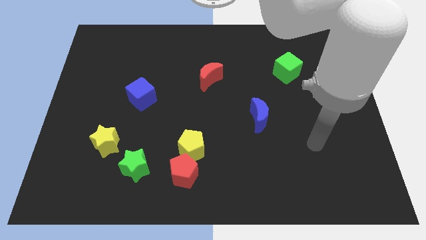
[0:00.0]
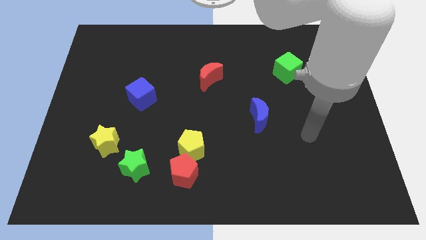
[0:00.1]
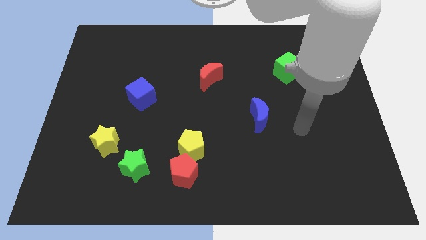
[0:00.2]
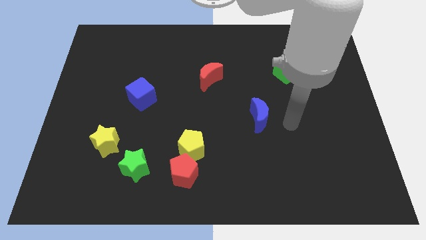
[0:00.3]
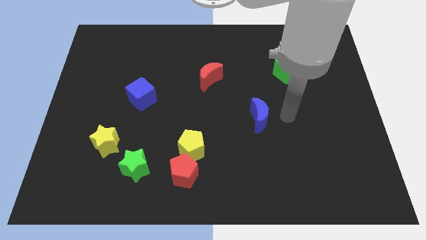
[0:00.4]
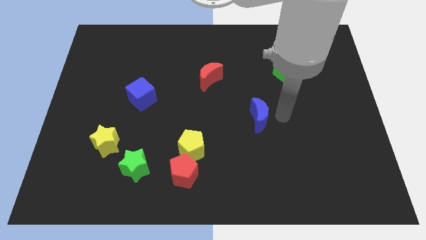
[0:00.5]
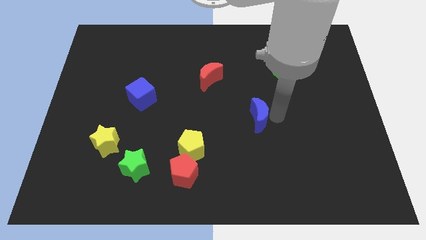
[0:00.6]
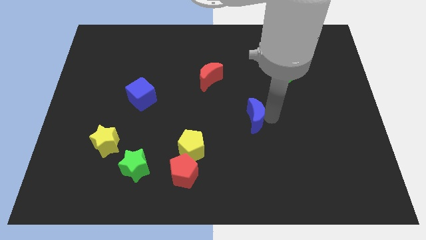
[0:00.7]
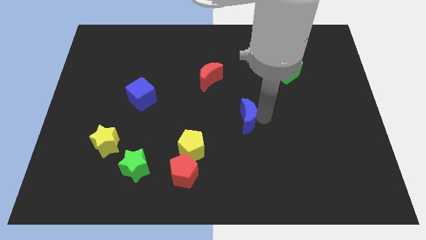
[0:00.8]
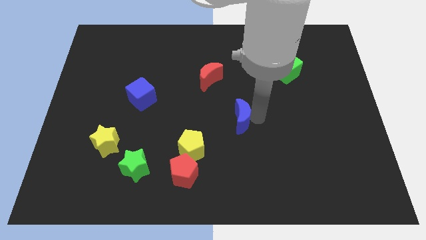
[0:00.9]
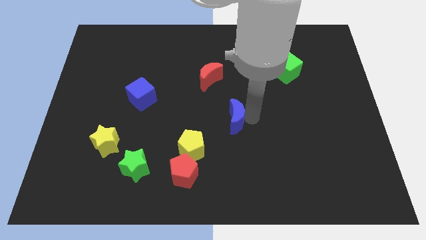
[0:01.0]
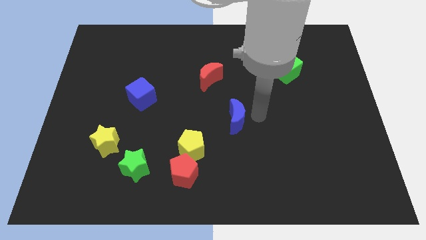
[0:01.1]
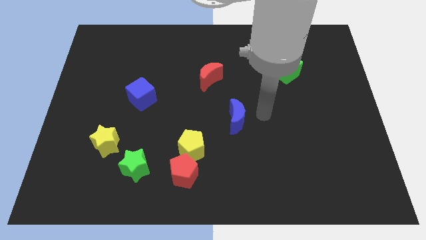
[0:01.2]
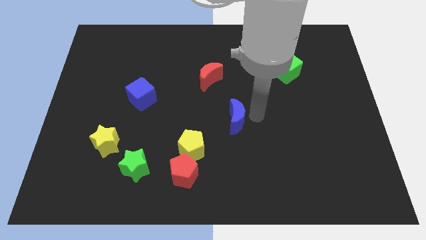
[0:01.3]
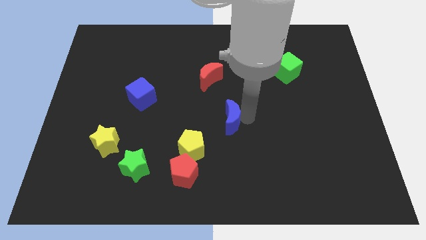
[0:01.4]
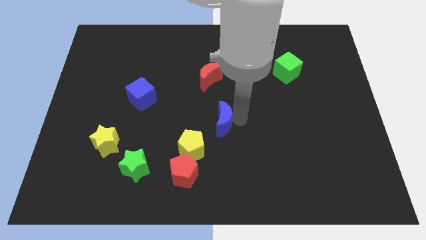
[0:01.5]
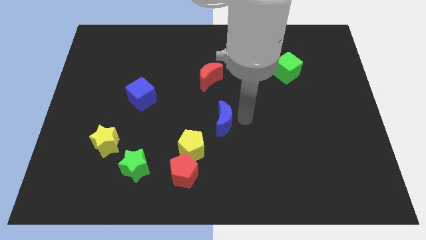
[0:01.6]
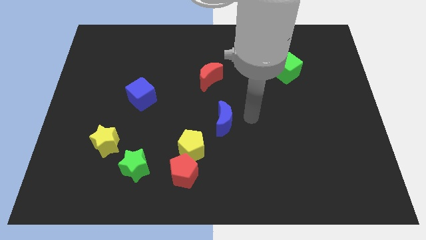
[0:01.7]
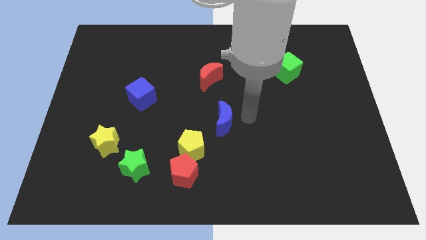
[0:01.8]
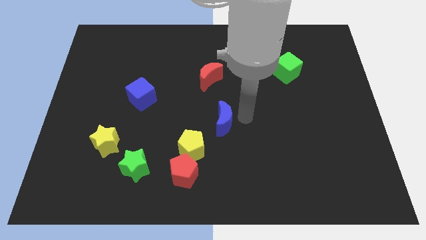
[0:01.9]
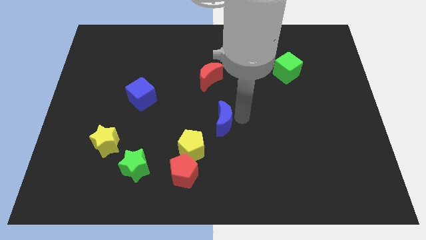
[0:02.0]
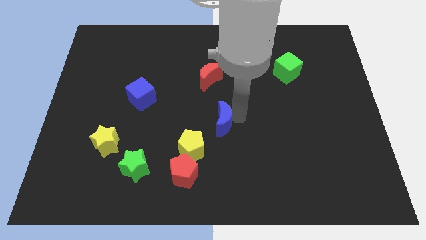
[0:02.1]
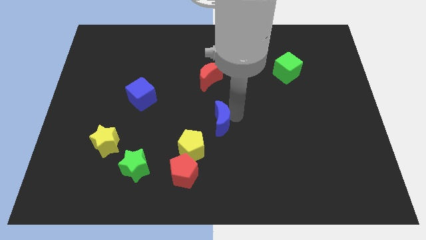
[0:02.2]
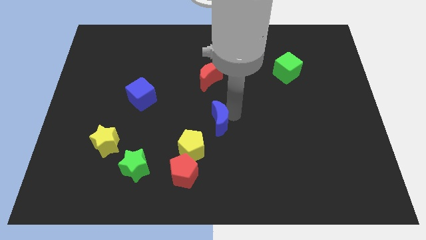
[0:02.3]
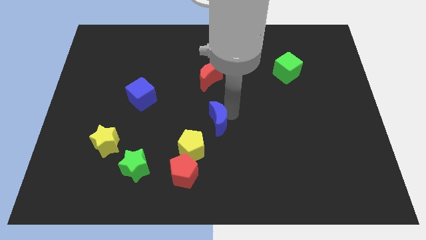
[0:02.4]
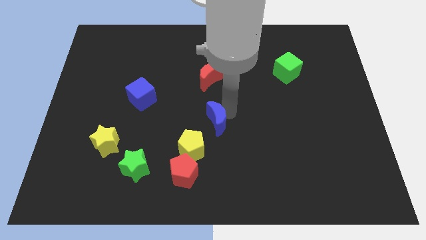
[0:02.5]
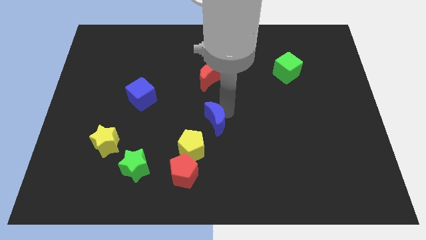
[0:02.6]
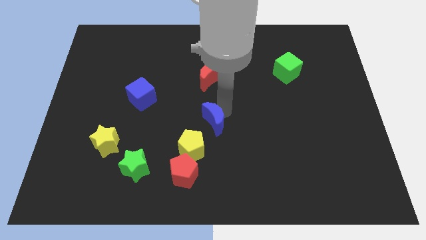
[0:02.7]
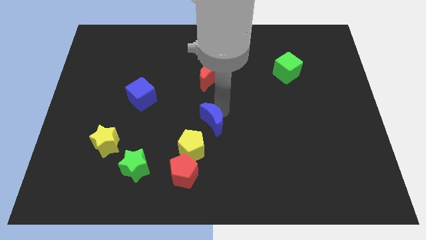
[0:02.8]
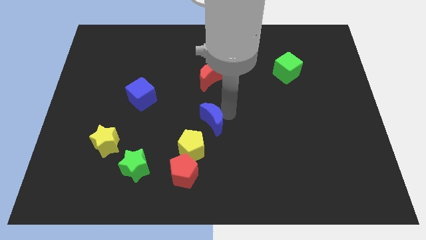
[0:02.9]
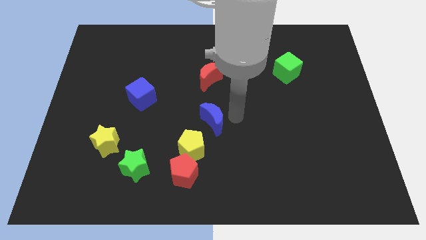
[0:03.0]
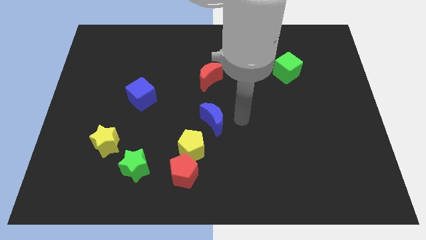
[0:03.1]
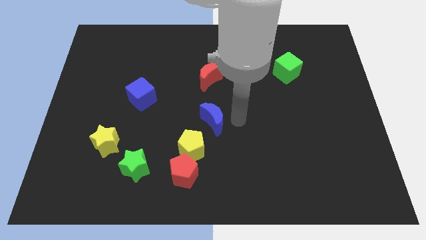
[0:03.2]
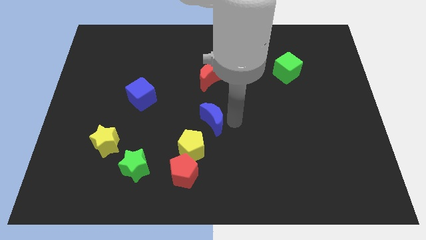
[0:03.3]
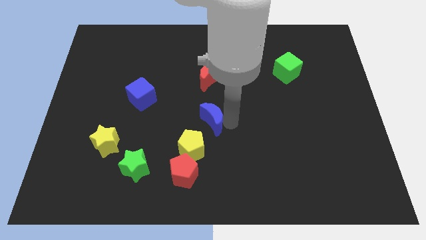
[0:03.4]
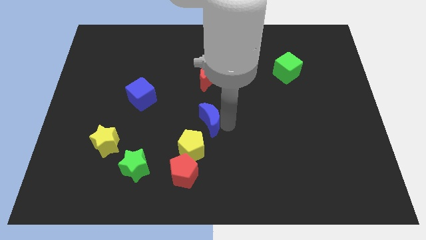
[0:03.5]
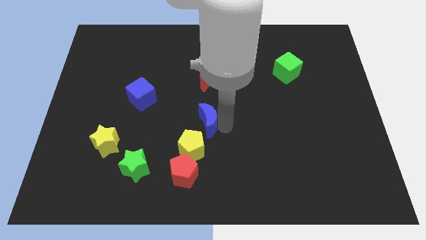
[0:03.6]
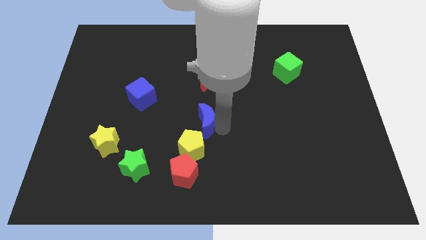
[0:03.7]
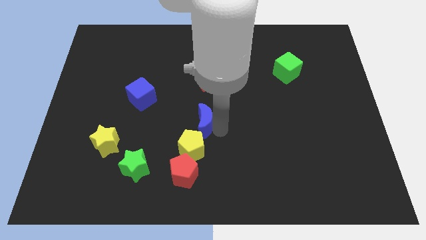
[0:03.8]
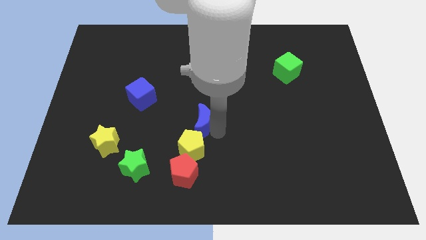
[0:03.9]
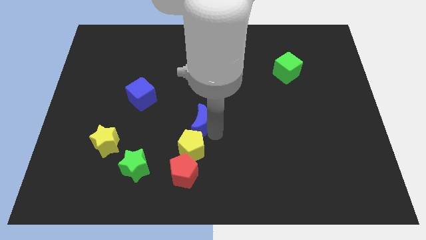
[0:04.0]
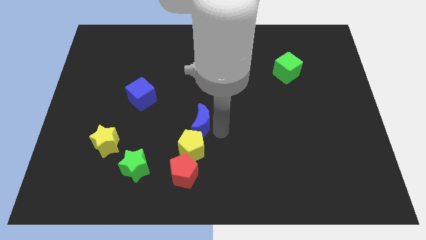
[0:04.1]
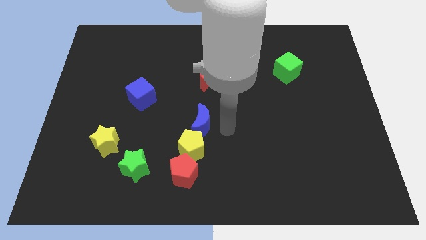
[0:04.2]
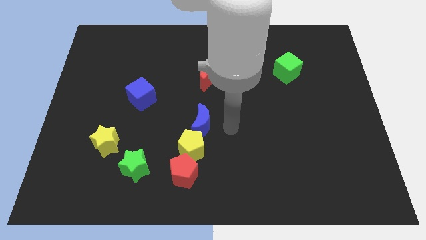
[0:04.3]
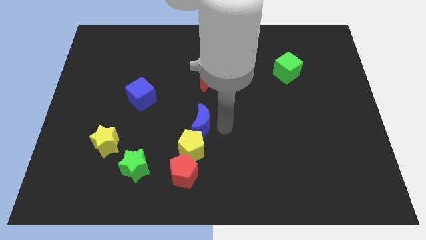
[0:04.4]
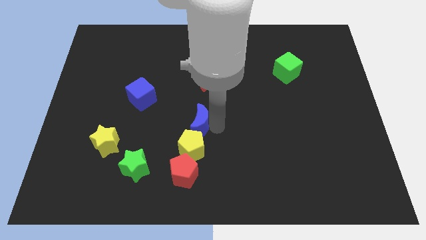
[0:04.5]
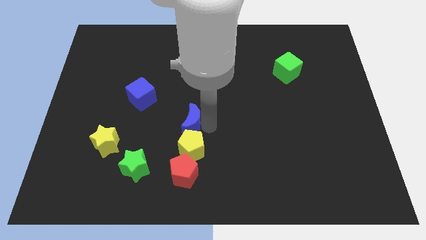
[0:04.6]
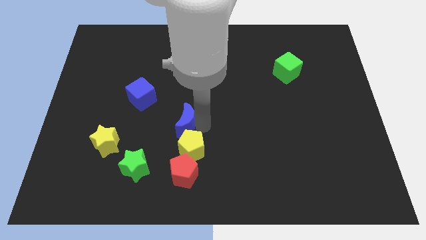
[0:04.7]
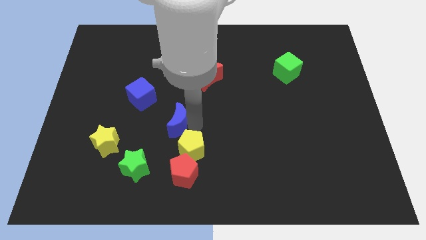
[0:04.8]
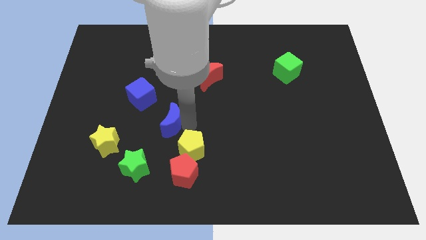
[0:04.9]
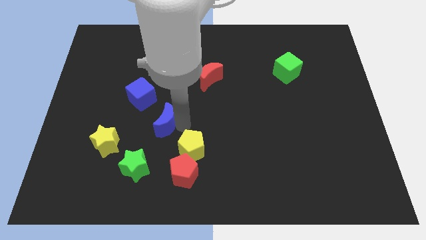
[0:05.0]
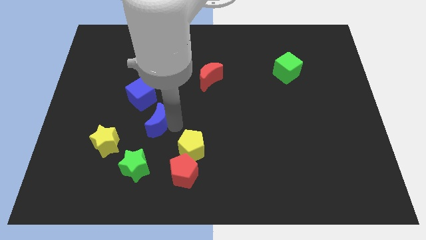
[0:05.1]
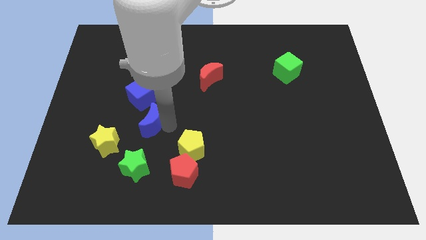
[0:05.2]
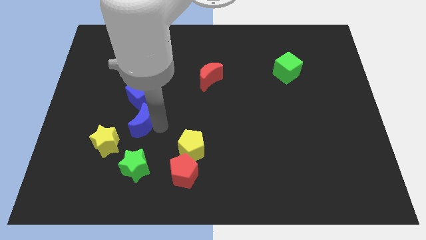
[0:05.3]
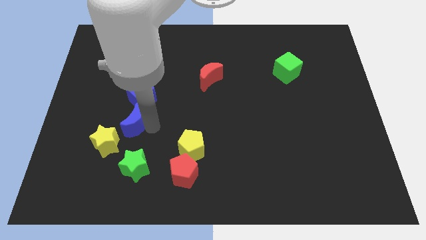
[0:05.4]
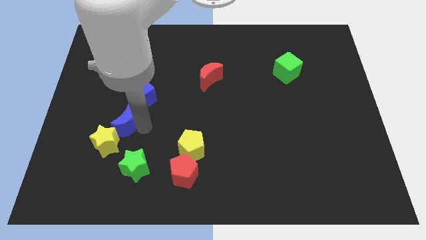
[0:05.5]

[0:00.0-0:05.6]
push the blue moon to the bottom left side of the blue cube

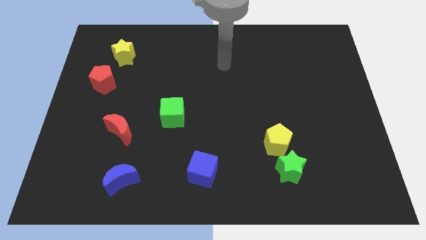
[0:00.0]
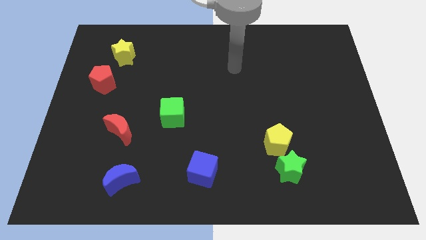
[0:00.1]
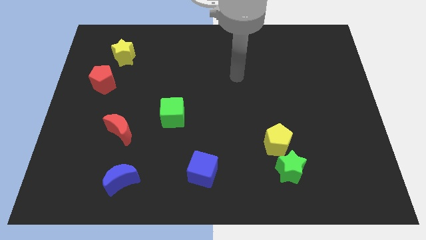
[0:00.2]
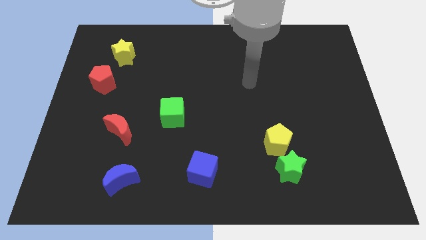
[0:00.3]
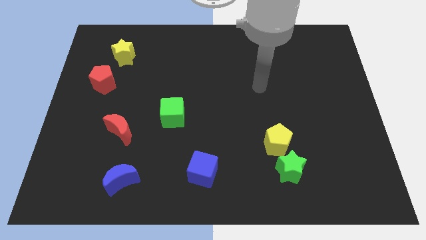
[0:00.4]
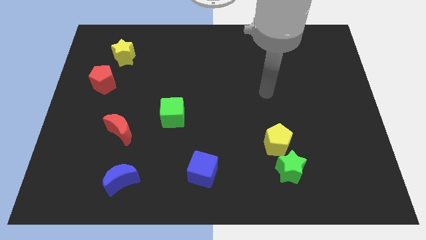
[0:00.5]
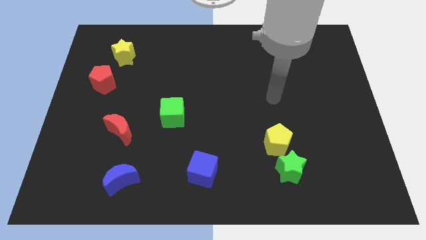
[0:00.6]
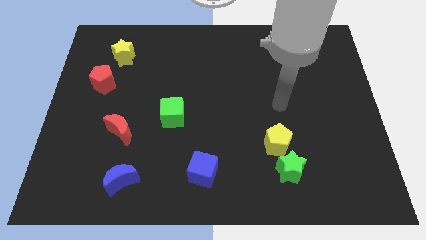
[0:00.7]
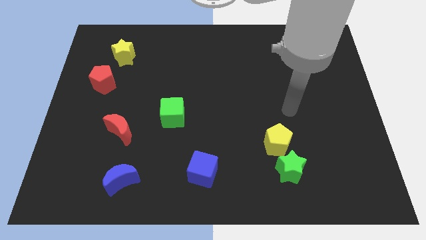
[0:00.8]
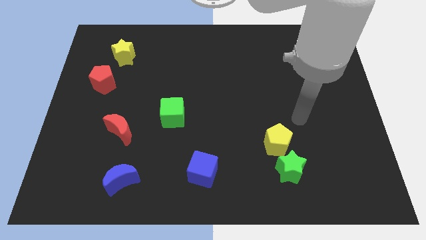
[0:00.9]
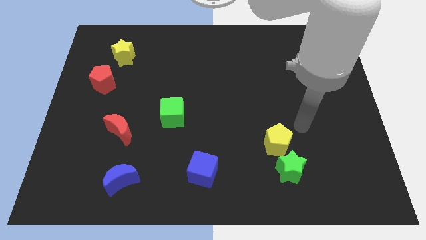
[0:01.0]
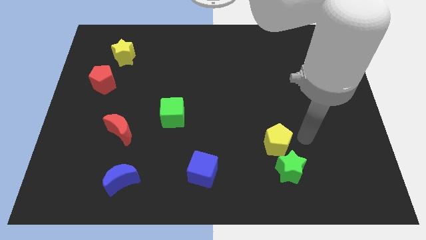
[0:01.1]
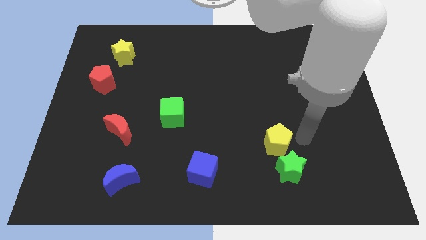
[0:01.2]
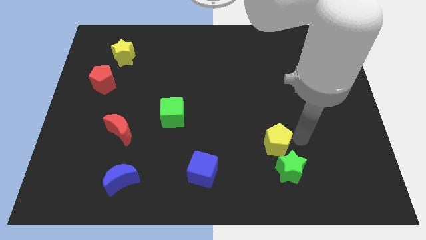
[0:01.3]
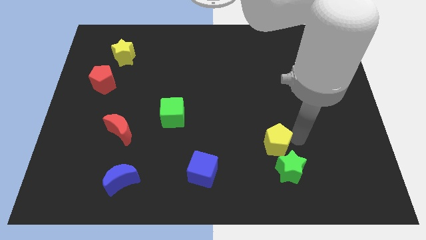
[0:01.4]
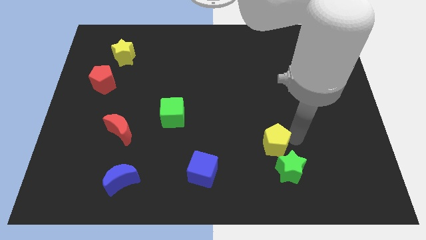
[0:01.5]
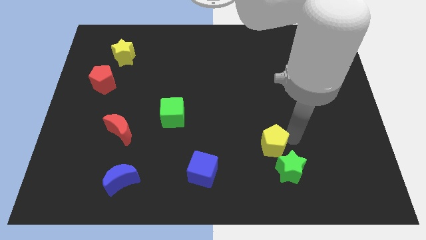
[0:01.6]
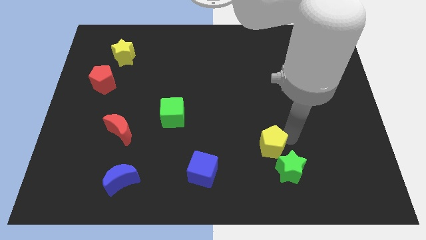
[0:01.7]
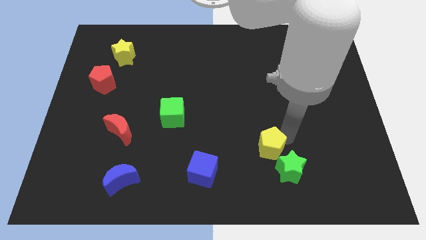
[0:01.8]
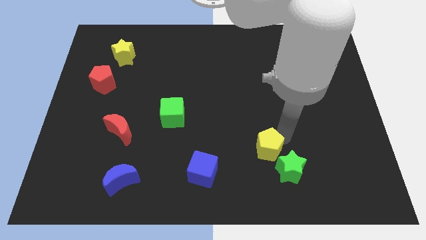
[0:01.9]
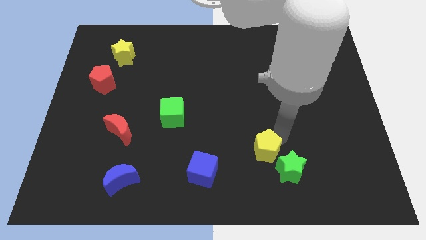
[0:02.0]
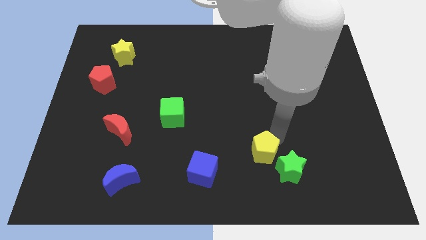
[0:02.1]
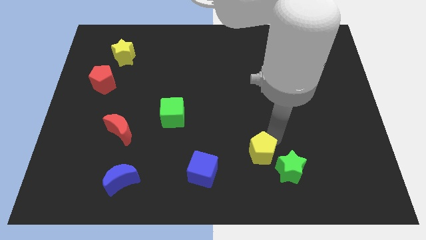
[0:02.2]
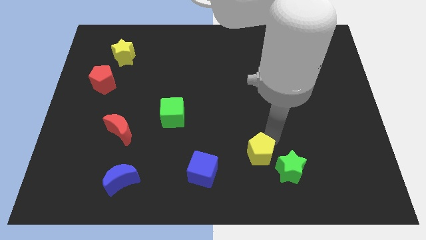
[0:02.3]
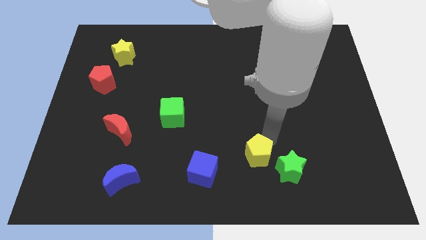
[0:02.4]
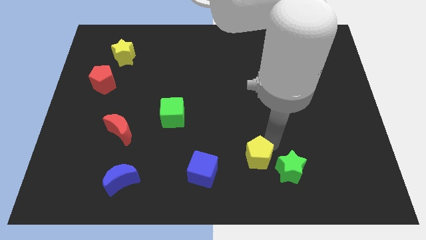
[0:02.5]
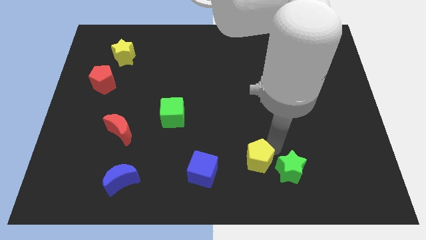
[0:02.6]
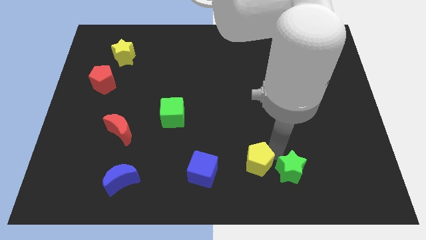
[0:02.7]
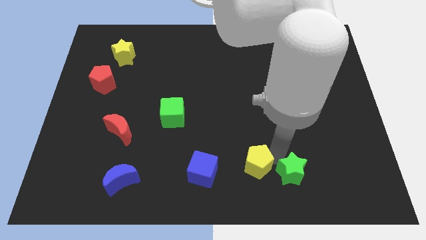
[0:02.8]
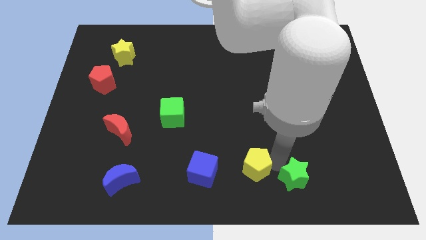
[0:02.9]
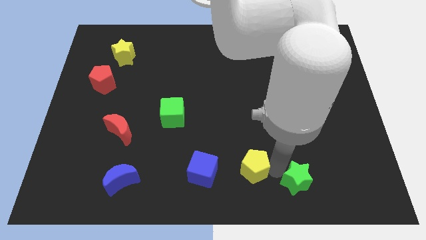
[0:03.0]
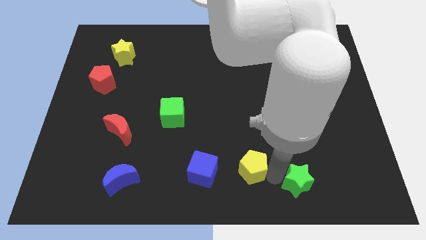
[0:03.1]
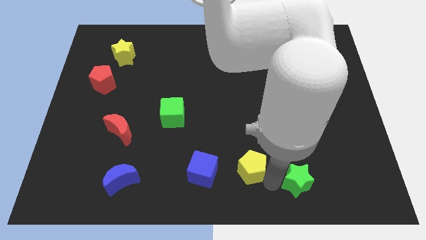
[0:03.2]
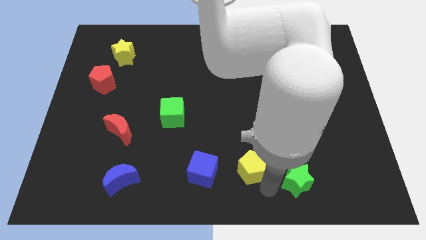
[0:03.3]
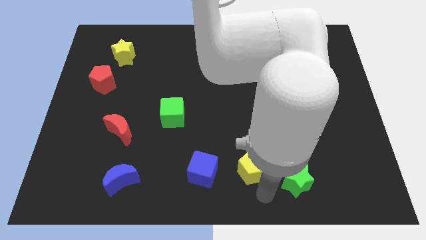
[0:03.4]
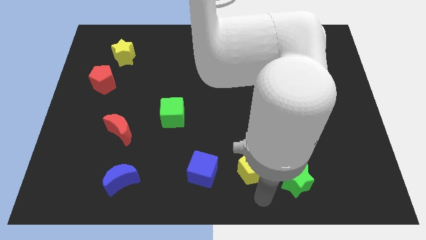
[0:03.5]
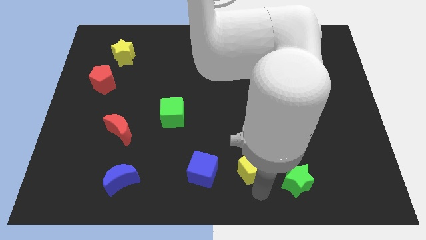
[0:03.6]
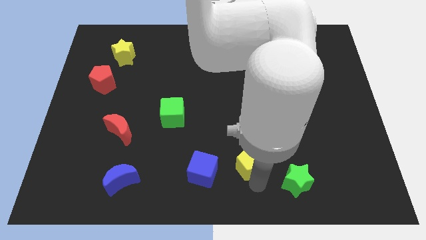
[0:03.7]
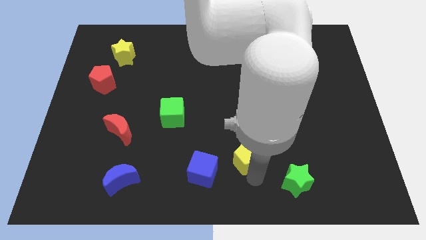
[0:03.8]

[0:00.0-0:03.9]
move the yellow pentagon to the top right of the blue cube
